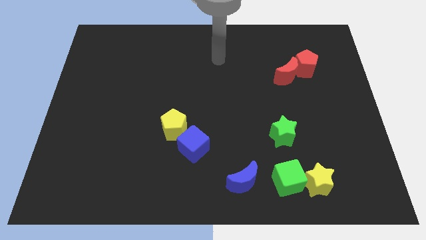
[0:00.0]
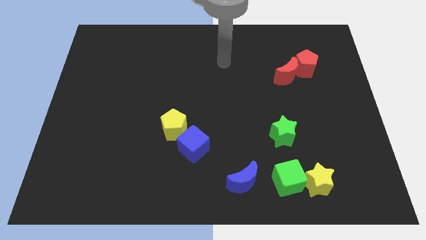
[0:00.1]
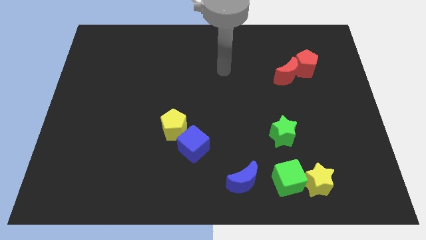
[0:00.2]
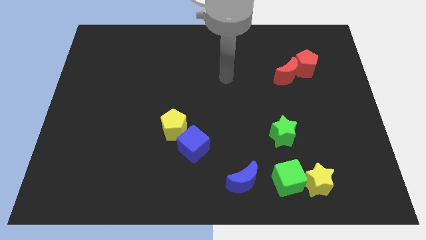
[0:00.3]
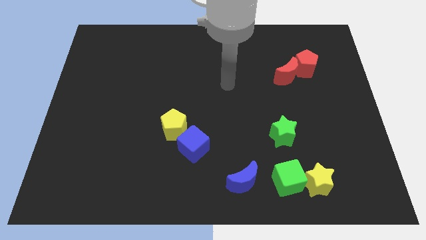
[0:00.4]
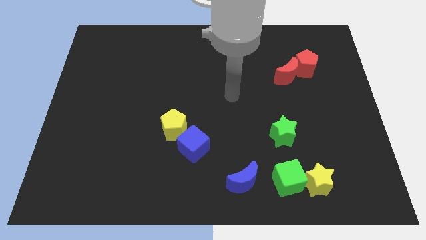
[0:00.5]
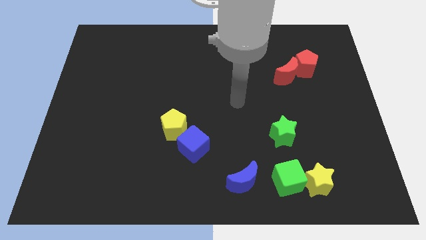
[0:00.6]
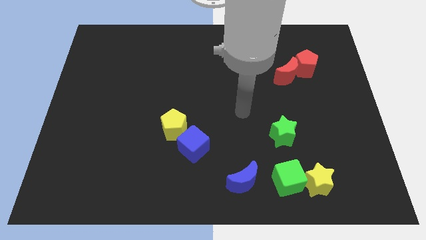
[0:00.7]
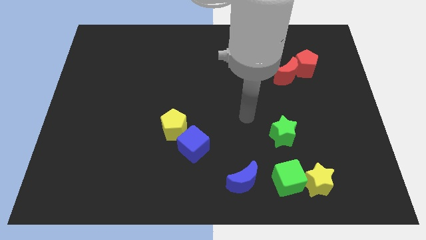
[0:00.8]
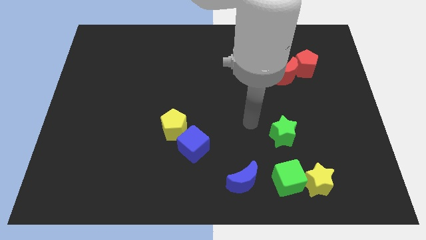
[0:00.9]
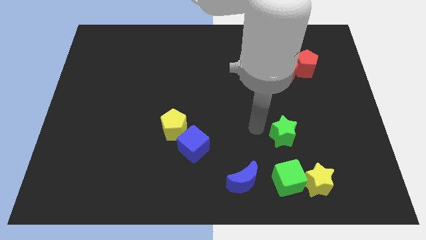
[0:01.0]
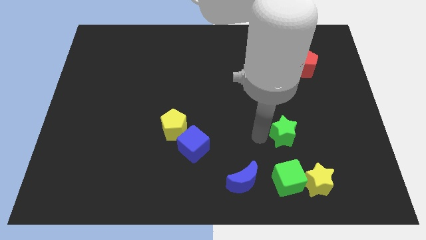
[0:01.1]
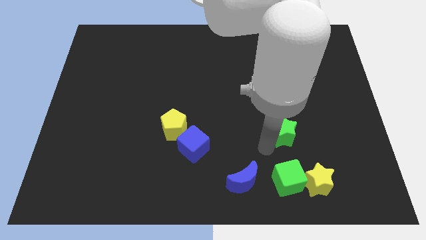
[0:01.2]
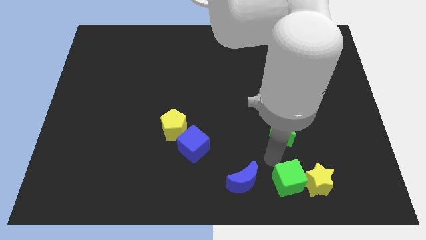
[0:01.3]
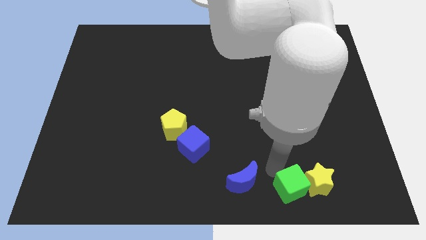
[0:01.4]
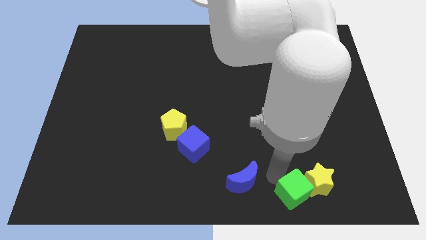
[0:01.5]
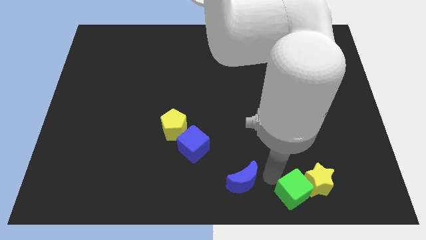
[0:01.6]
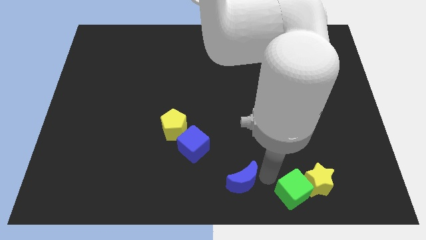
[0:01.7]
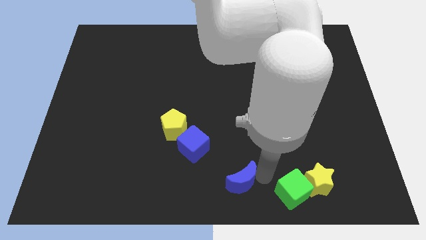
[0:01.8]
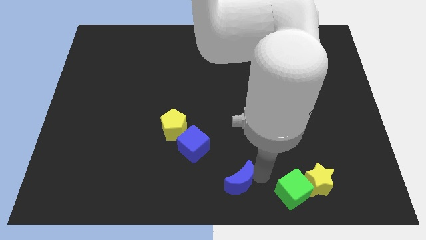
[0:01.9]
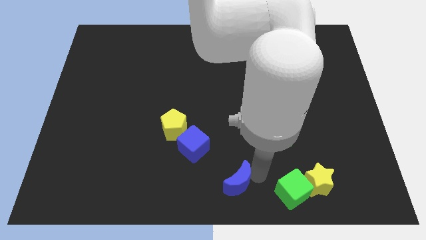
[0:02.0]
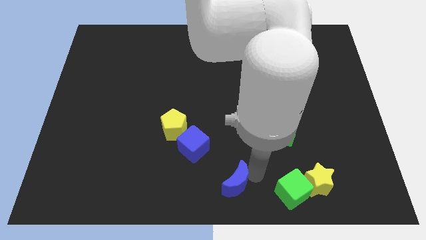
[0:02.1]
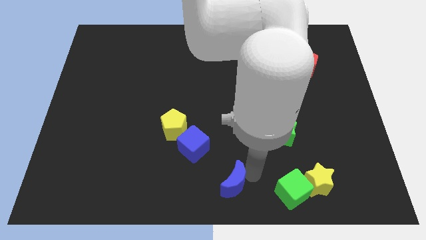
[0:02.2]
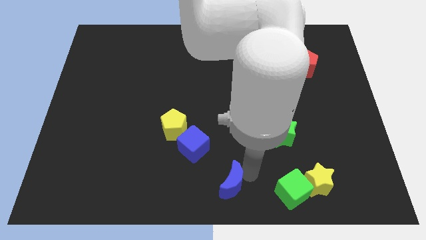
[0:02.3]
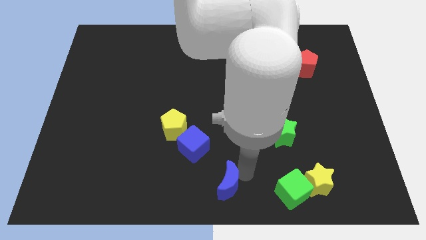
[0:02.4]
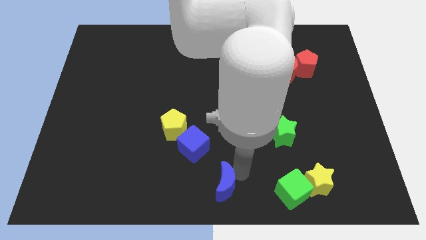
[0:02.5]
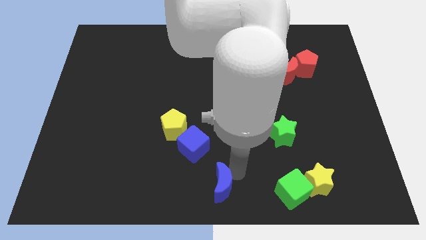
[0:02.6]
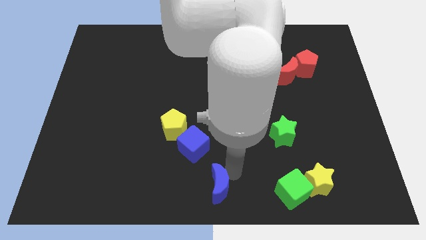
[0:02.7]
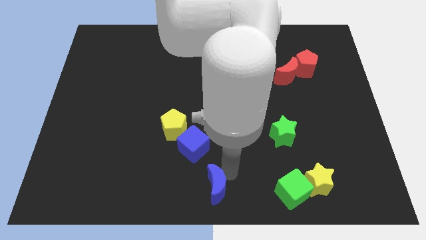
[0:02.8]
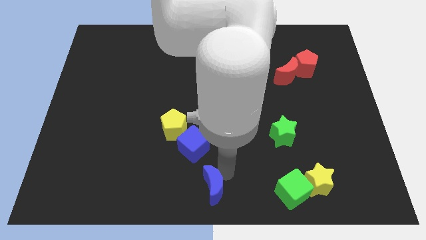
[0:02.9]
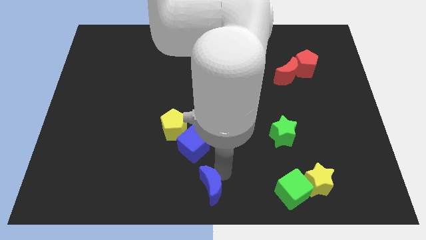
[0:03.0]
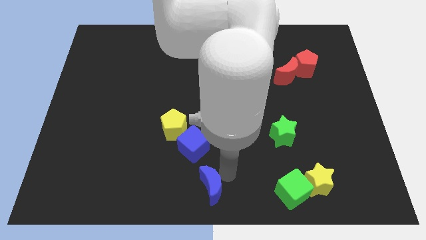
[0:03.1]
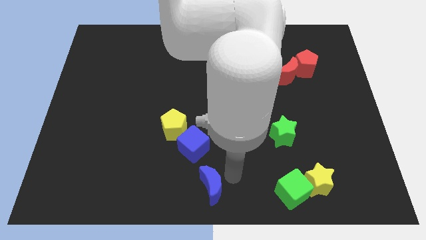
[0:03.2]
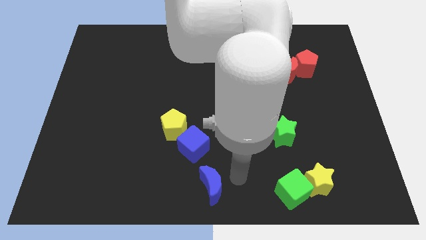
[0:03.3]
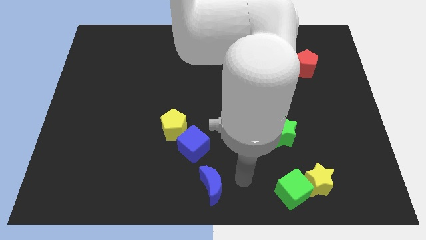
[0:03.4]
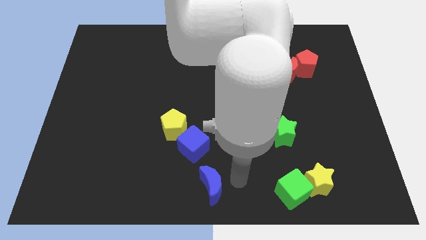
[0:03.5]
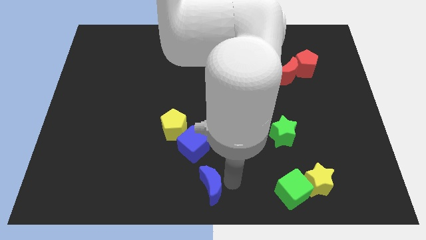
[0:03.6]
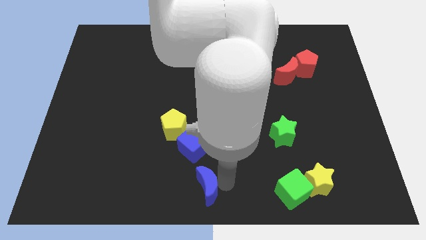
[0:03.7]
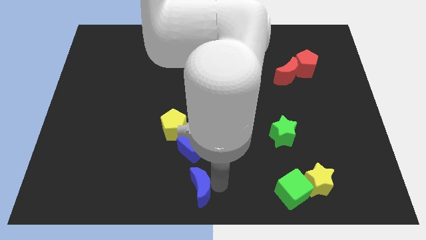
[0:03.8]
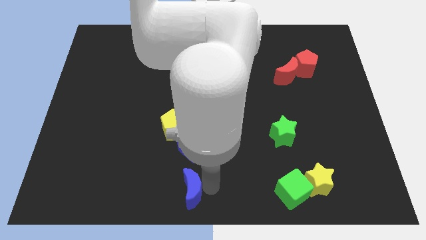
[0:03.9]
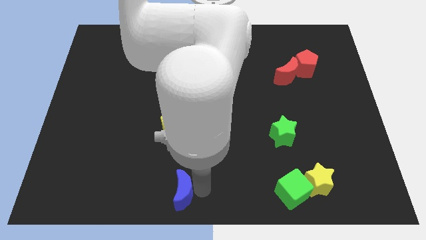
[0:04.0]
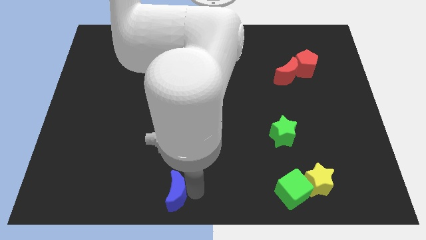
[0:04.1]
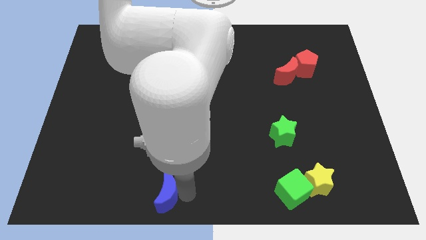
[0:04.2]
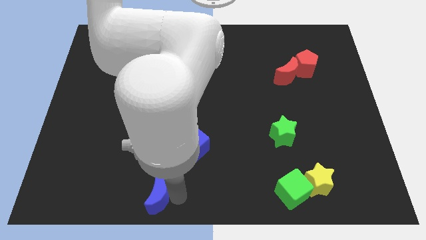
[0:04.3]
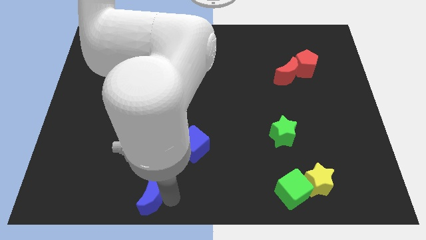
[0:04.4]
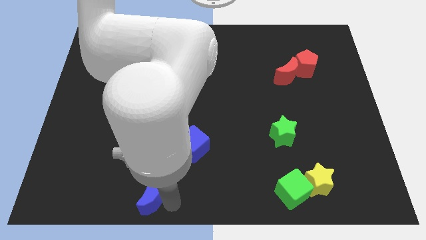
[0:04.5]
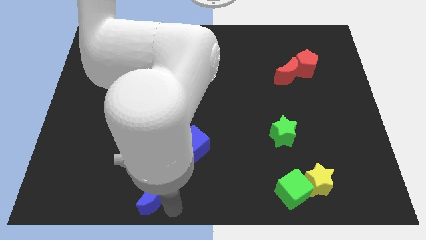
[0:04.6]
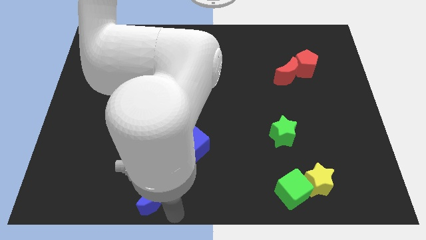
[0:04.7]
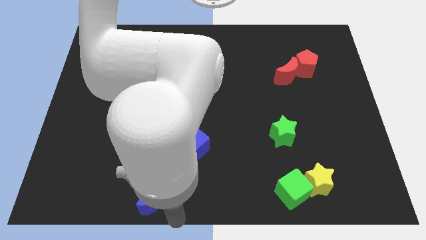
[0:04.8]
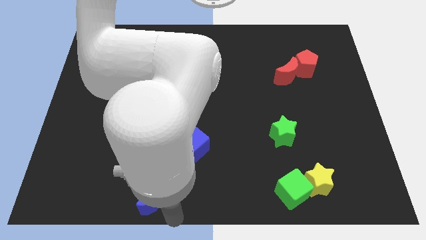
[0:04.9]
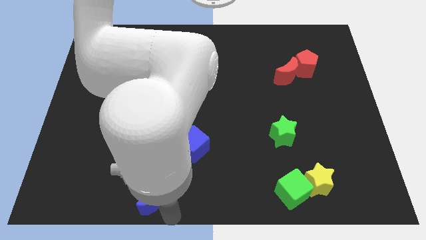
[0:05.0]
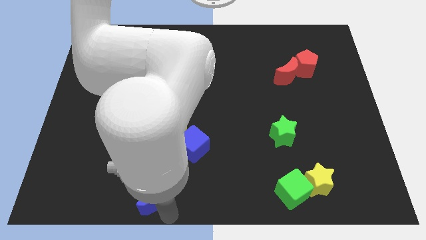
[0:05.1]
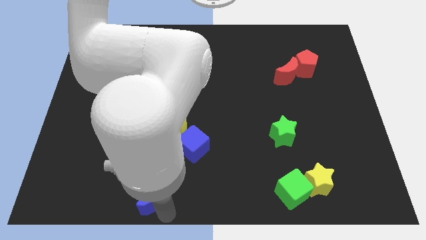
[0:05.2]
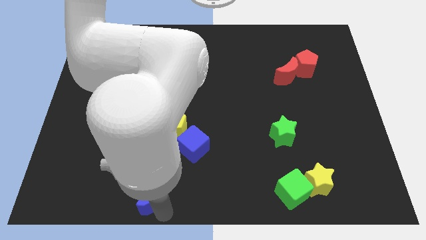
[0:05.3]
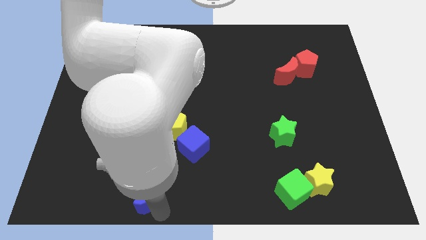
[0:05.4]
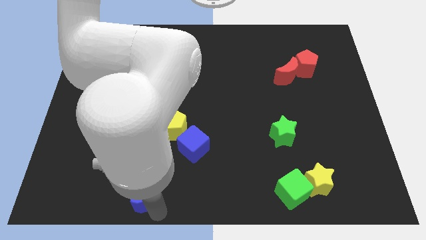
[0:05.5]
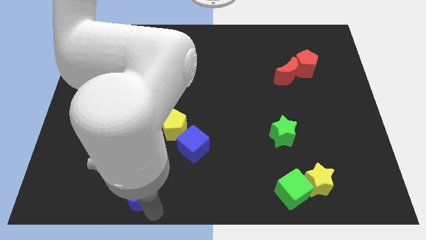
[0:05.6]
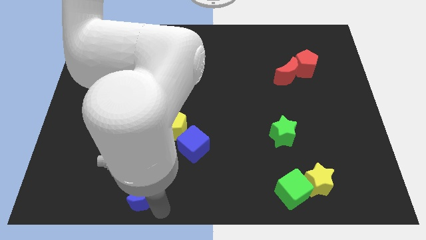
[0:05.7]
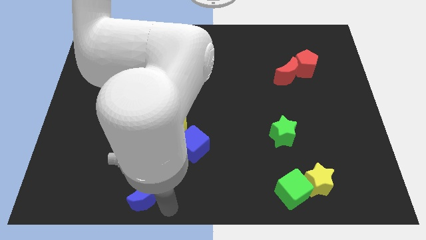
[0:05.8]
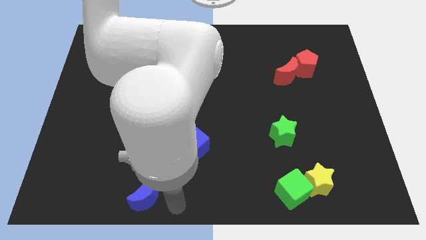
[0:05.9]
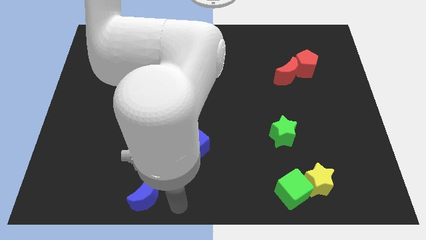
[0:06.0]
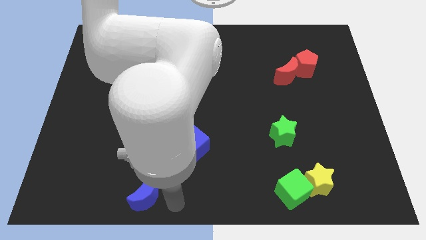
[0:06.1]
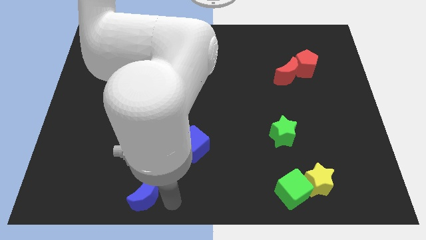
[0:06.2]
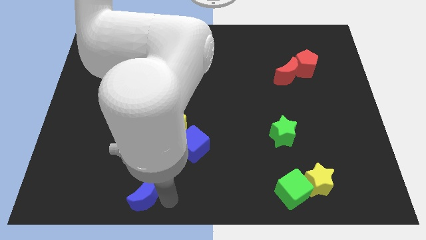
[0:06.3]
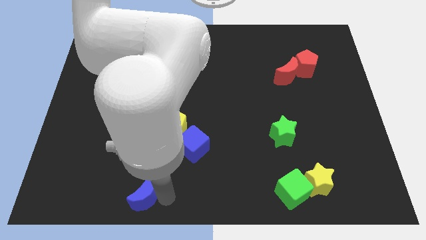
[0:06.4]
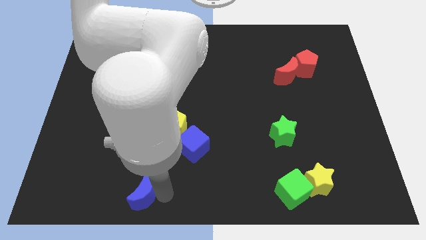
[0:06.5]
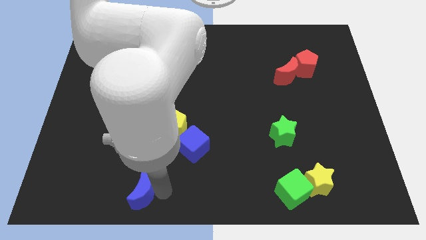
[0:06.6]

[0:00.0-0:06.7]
move the blue moon left

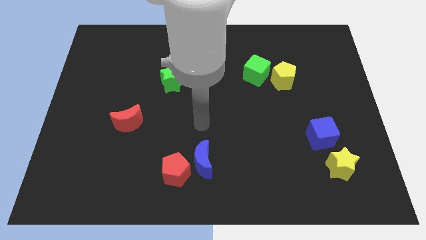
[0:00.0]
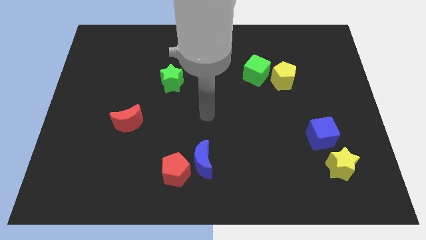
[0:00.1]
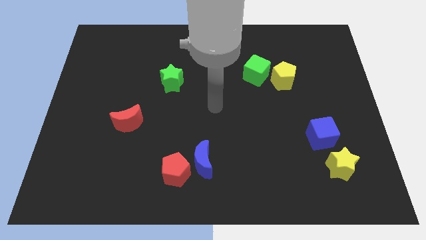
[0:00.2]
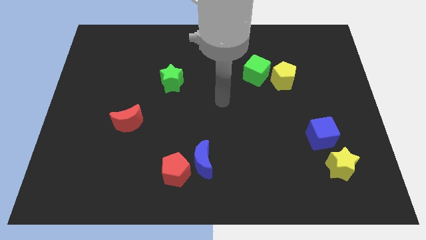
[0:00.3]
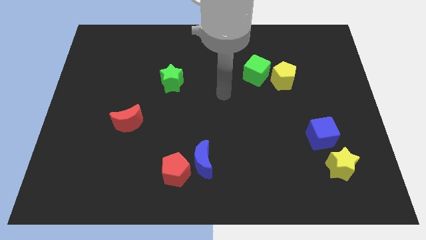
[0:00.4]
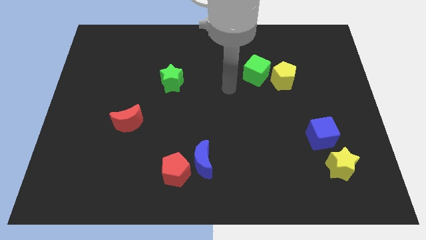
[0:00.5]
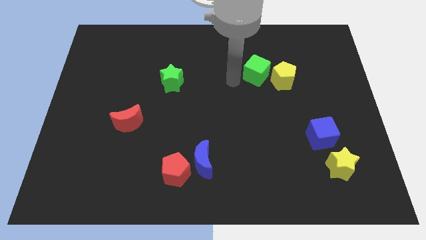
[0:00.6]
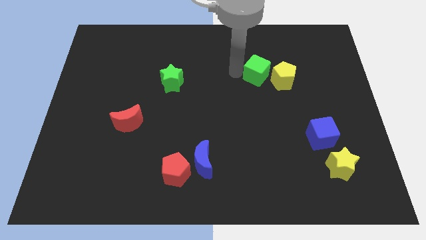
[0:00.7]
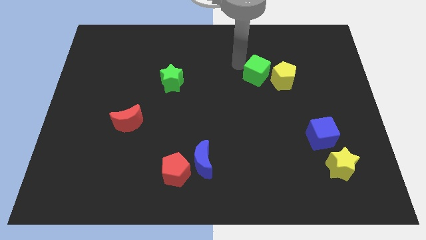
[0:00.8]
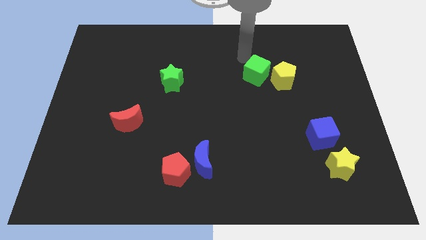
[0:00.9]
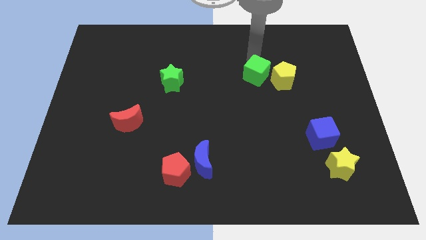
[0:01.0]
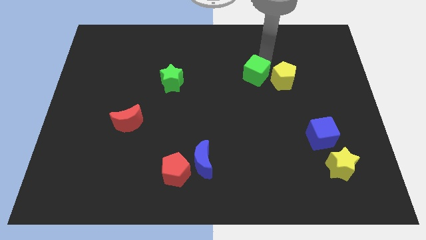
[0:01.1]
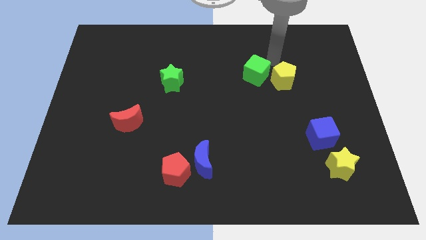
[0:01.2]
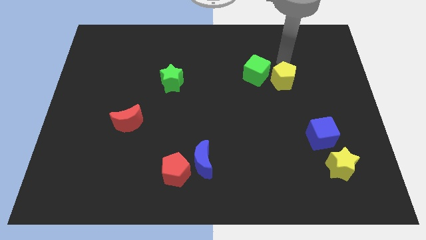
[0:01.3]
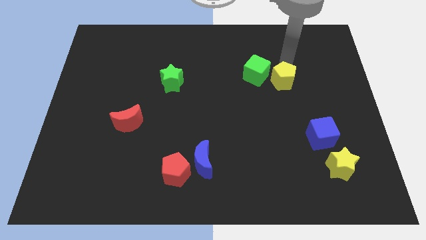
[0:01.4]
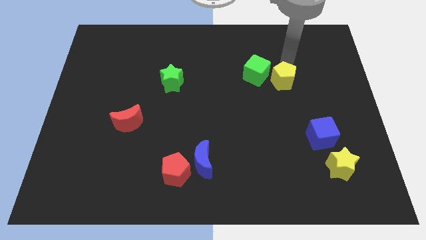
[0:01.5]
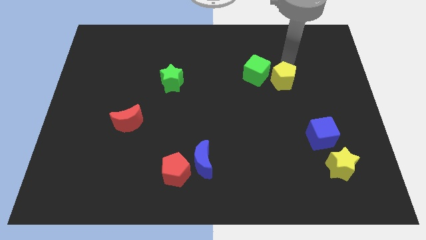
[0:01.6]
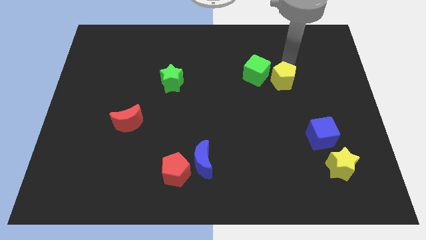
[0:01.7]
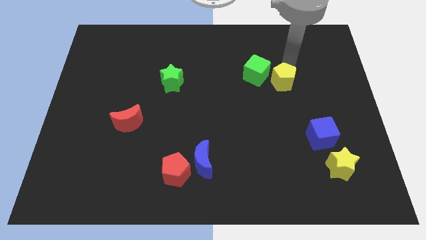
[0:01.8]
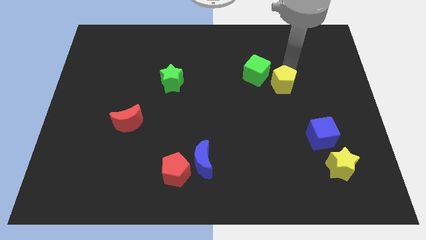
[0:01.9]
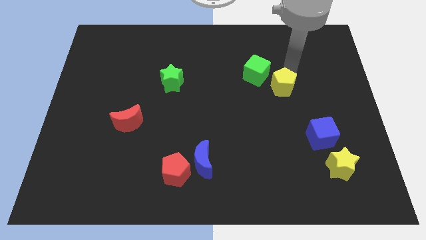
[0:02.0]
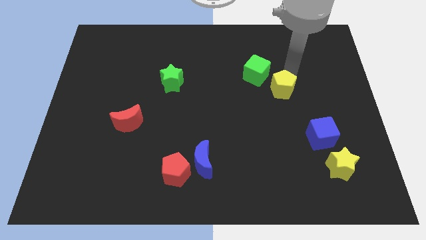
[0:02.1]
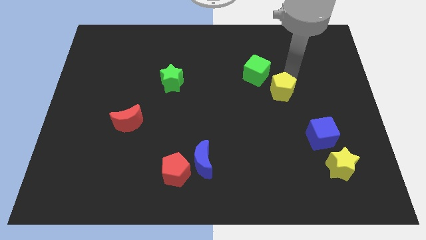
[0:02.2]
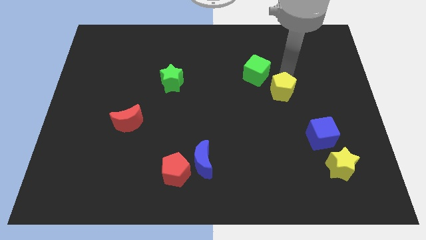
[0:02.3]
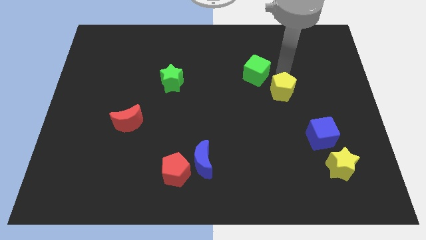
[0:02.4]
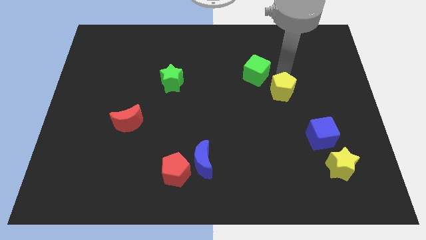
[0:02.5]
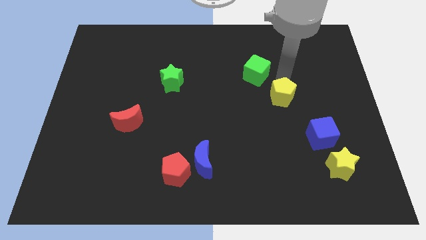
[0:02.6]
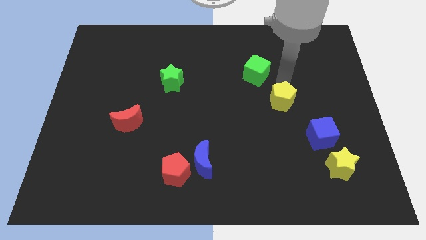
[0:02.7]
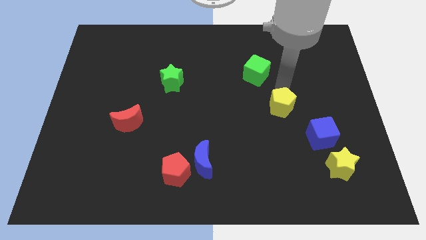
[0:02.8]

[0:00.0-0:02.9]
slightly push the yellow pentagon down
